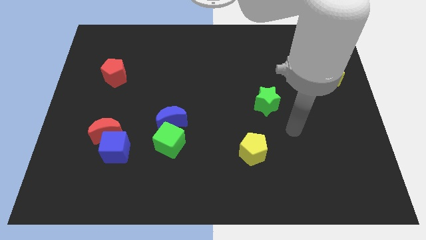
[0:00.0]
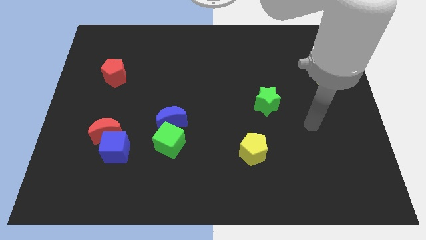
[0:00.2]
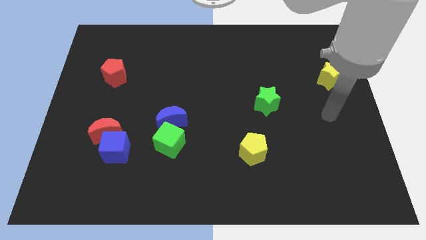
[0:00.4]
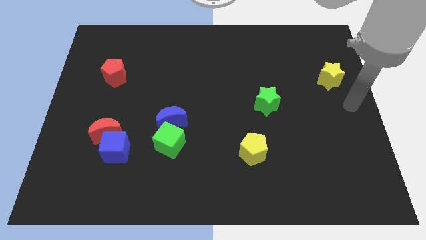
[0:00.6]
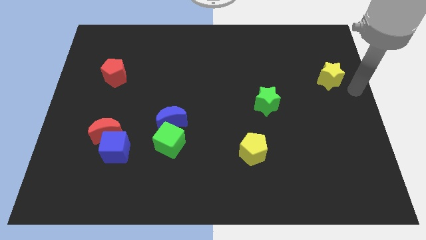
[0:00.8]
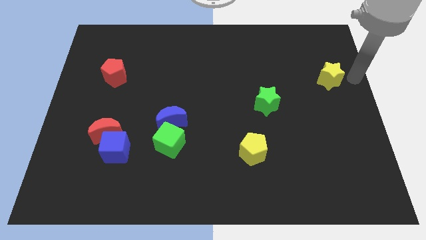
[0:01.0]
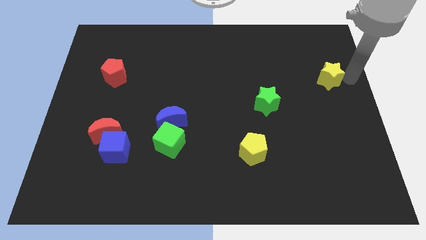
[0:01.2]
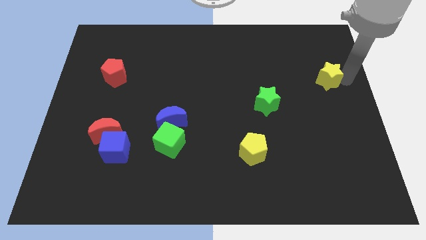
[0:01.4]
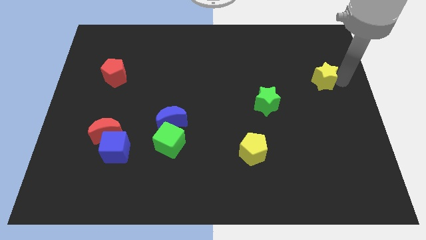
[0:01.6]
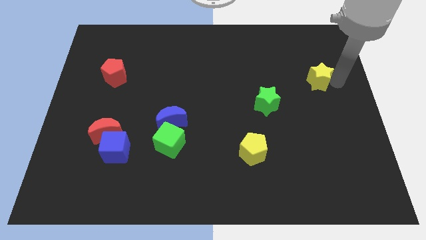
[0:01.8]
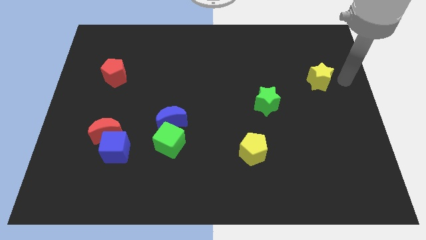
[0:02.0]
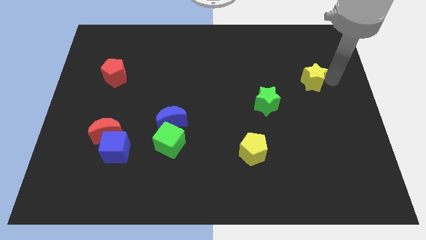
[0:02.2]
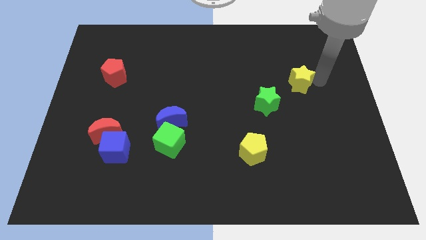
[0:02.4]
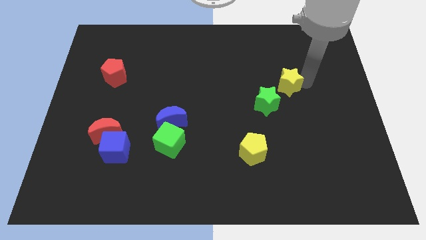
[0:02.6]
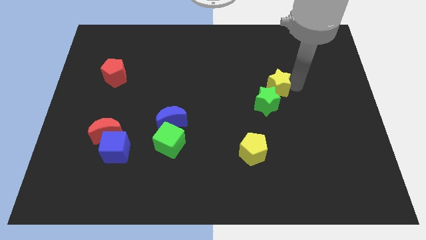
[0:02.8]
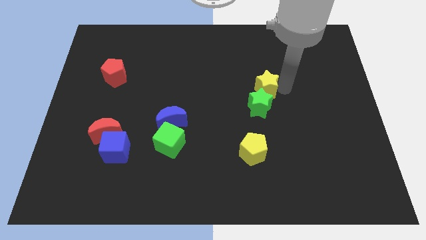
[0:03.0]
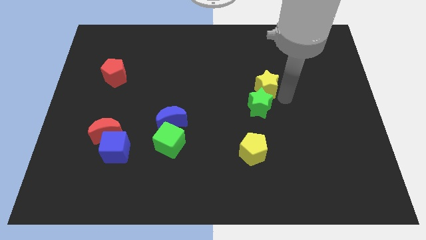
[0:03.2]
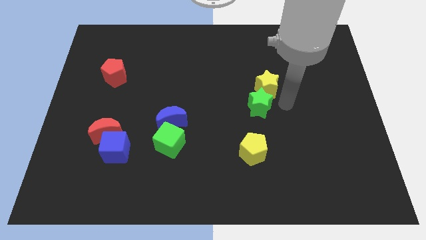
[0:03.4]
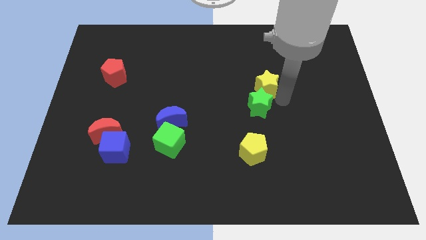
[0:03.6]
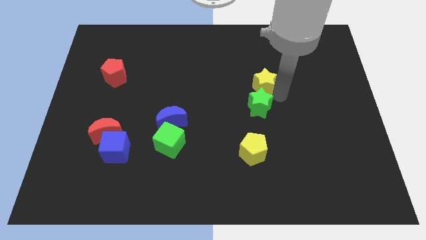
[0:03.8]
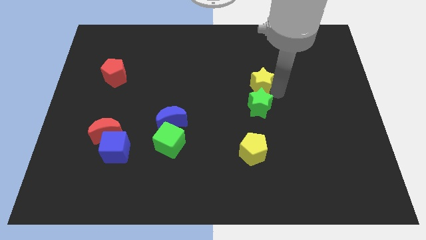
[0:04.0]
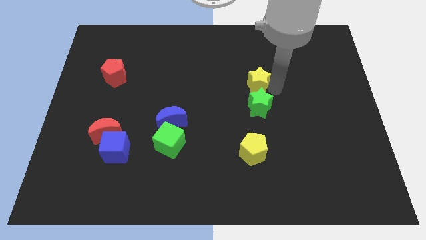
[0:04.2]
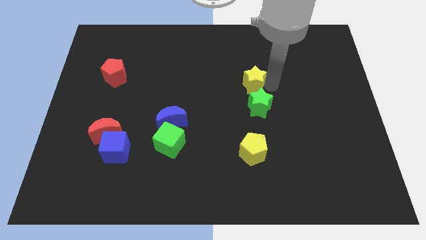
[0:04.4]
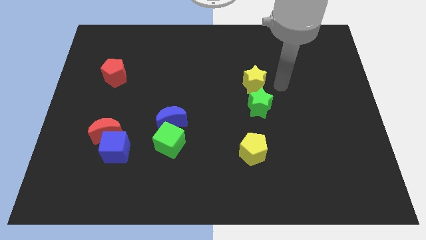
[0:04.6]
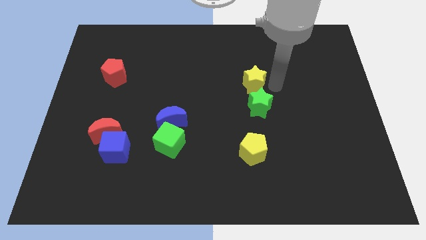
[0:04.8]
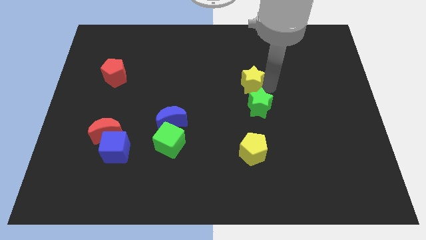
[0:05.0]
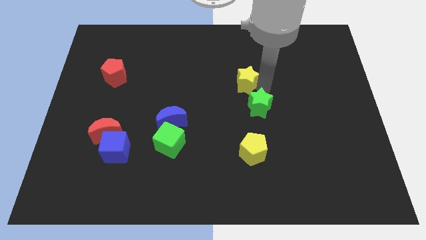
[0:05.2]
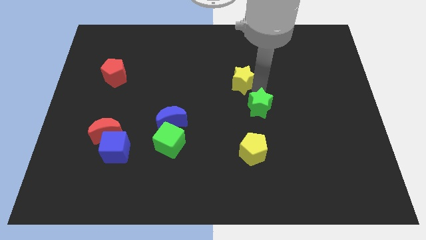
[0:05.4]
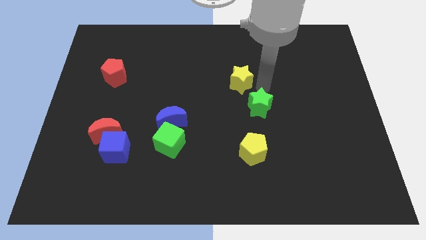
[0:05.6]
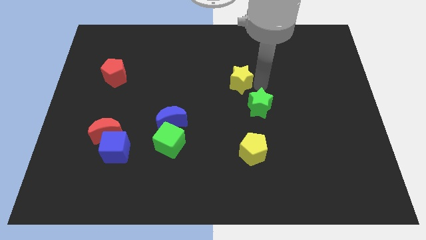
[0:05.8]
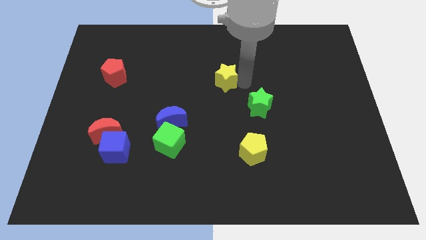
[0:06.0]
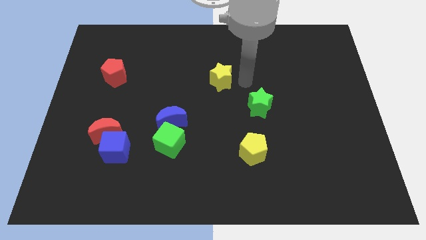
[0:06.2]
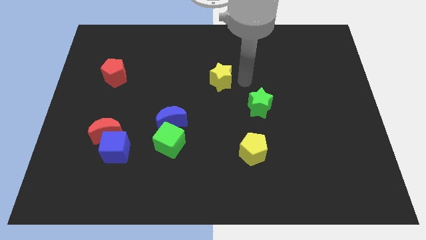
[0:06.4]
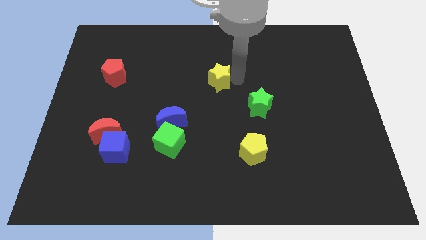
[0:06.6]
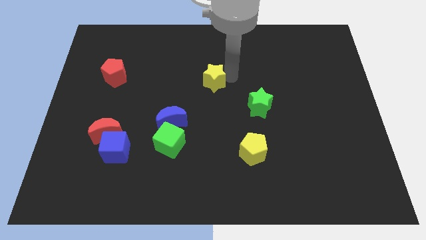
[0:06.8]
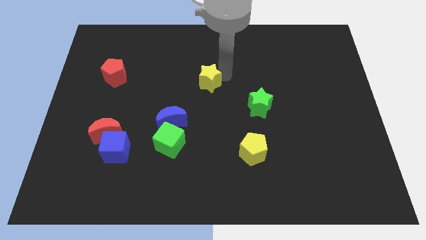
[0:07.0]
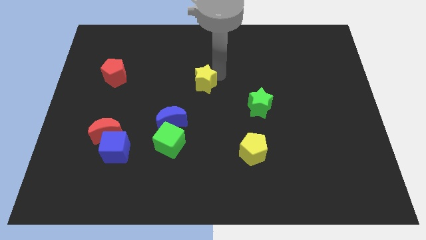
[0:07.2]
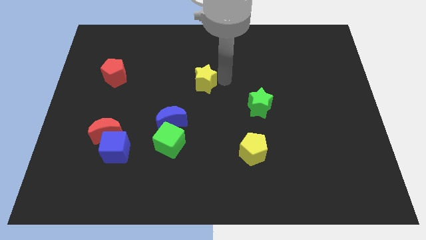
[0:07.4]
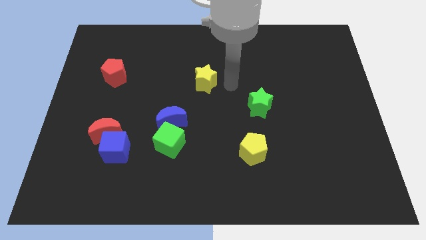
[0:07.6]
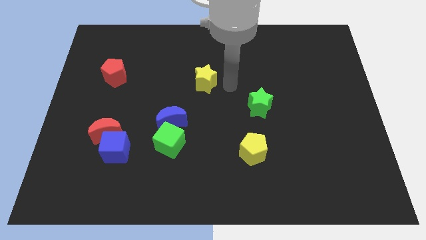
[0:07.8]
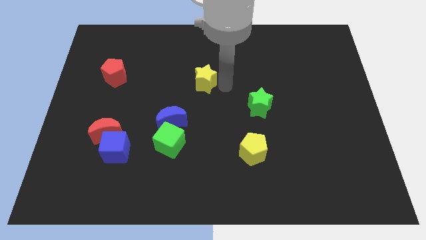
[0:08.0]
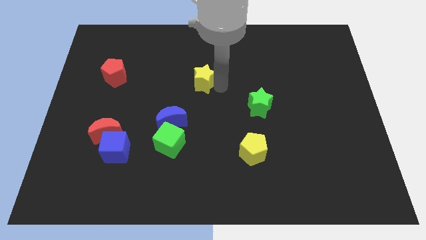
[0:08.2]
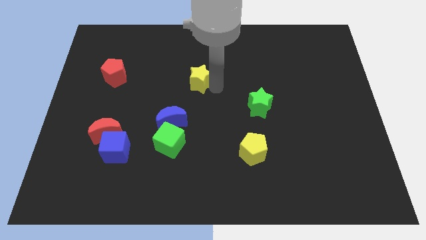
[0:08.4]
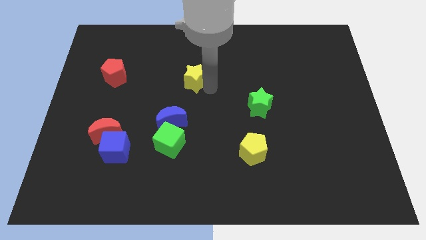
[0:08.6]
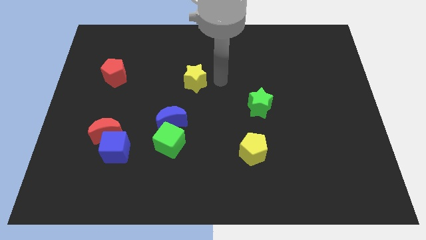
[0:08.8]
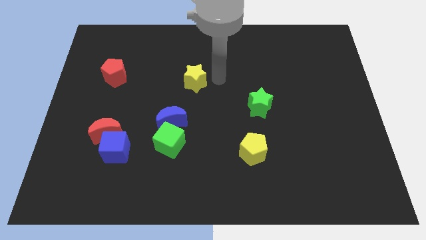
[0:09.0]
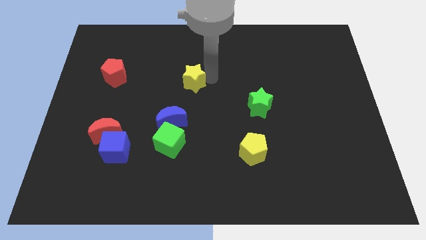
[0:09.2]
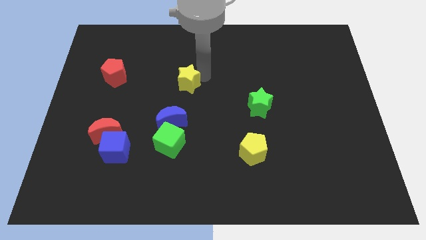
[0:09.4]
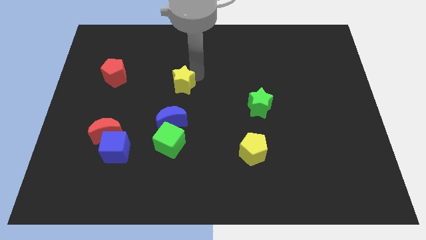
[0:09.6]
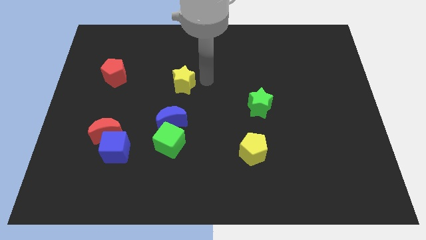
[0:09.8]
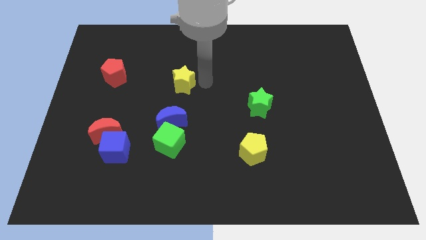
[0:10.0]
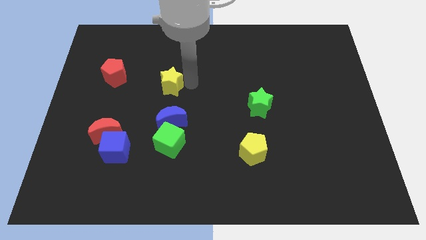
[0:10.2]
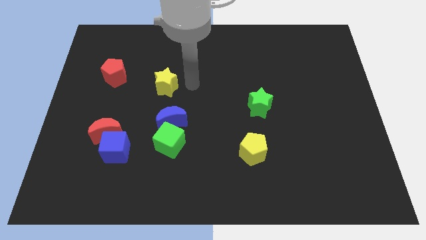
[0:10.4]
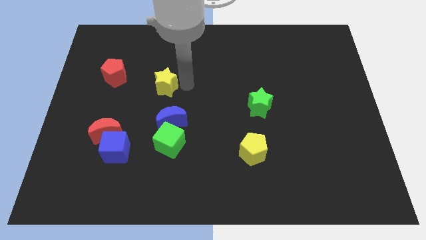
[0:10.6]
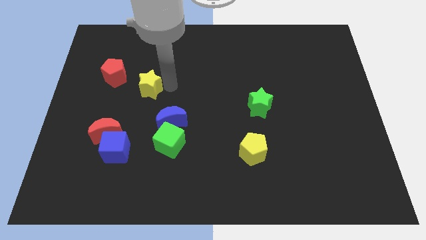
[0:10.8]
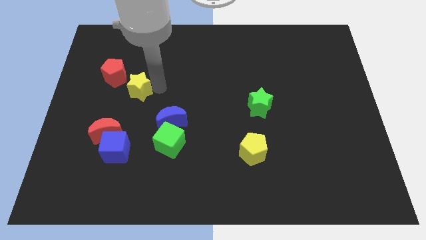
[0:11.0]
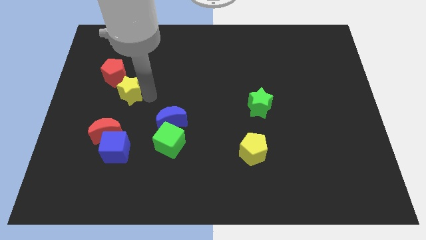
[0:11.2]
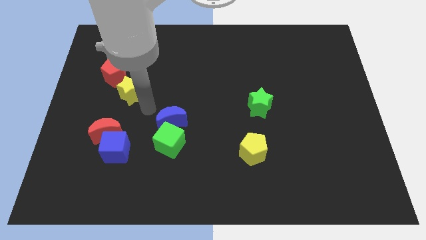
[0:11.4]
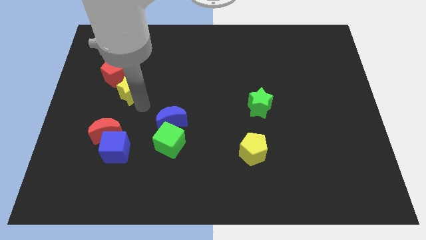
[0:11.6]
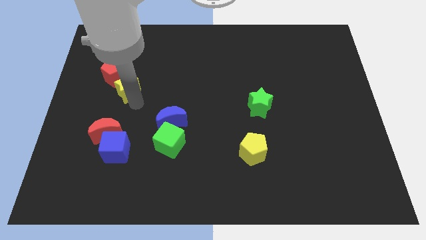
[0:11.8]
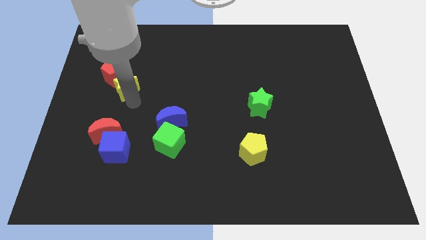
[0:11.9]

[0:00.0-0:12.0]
move the yellow star to the red pentagon

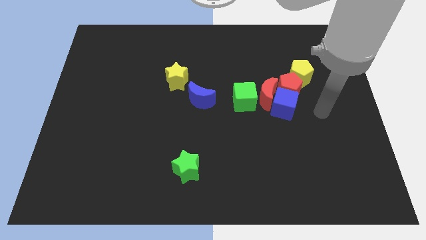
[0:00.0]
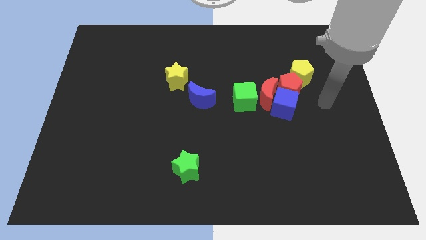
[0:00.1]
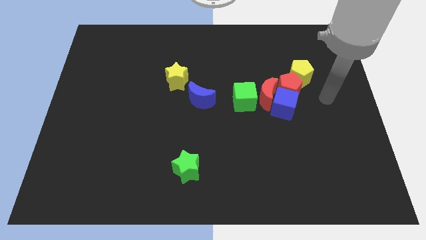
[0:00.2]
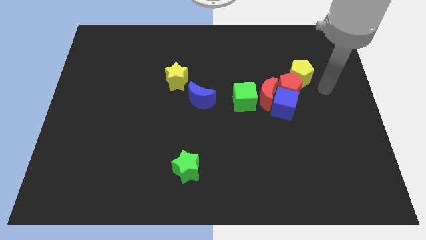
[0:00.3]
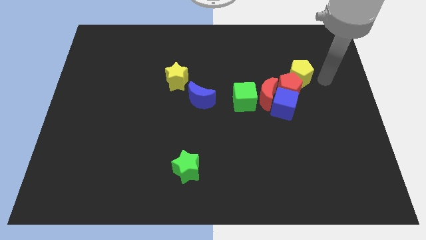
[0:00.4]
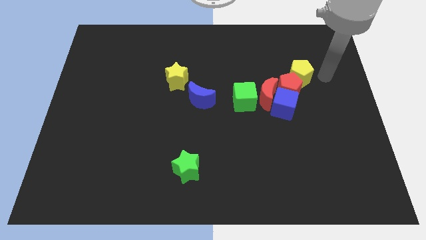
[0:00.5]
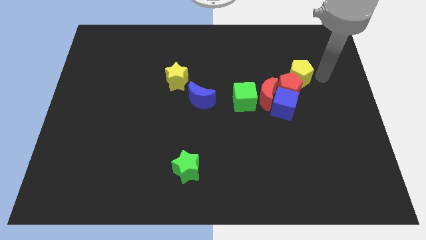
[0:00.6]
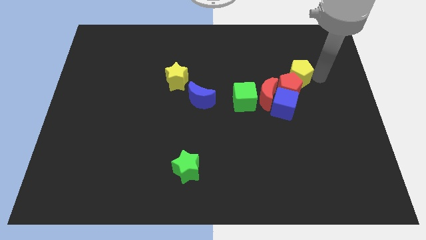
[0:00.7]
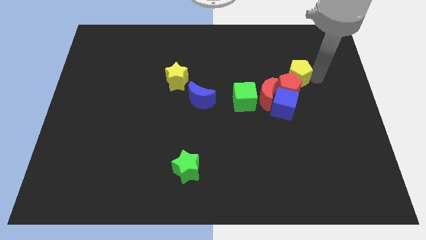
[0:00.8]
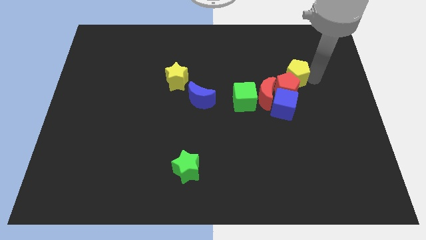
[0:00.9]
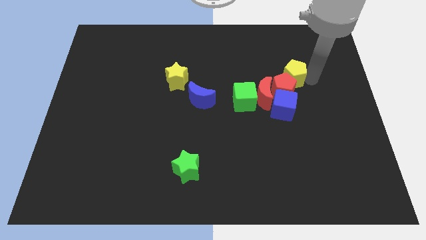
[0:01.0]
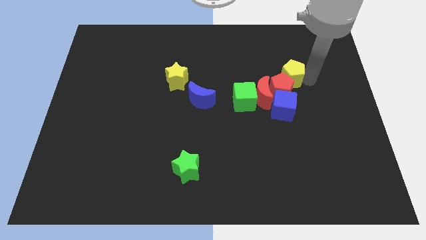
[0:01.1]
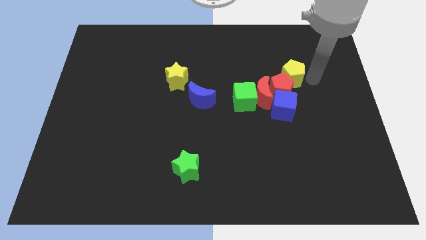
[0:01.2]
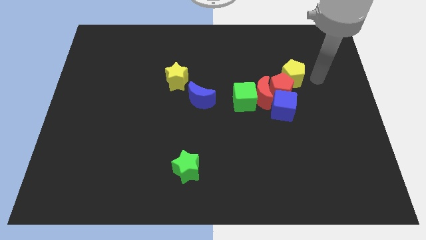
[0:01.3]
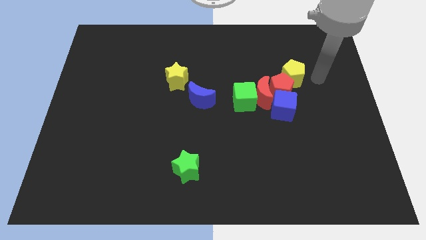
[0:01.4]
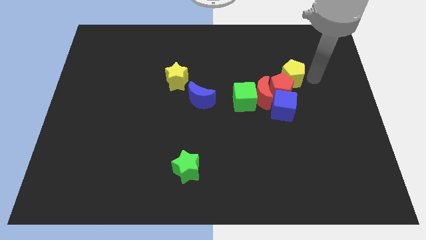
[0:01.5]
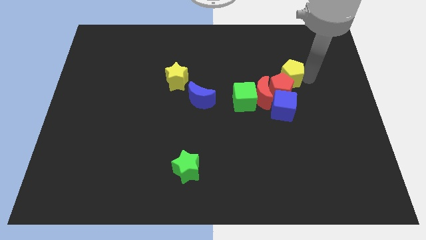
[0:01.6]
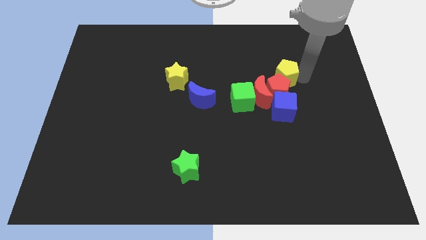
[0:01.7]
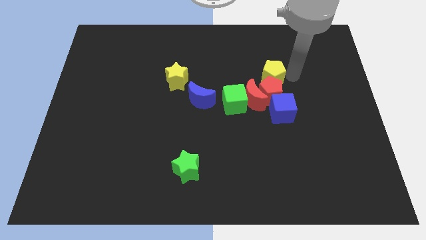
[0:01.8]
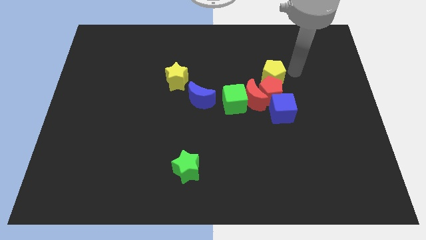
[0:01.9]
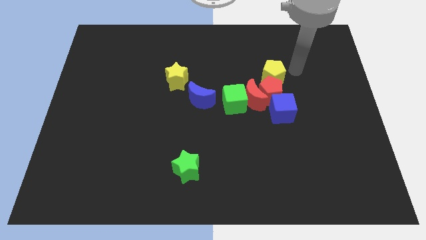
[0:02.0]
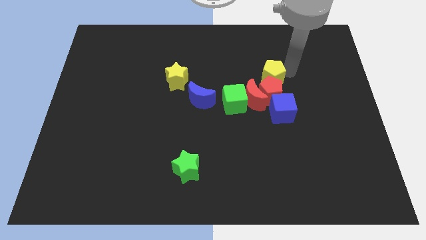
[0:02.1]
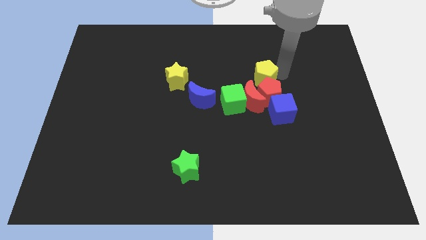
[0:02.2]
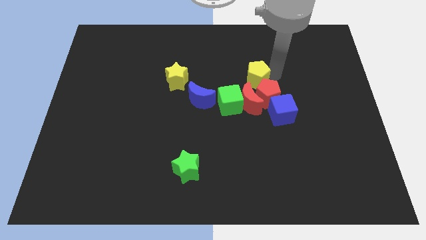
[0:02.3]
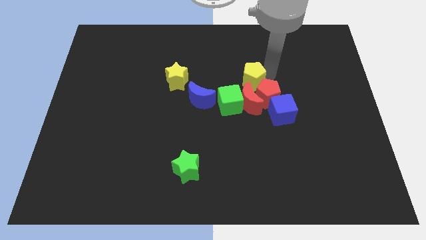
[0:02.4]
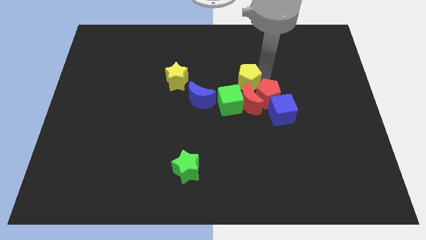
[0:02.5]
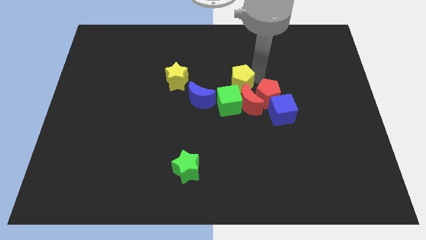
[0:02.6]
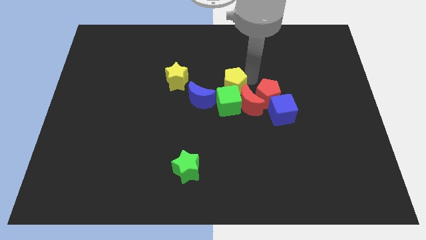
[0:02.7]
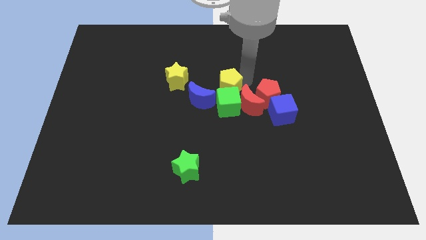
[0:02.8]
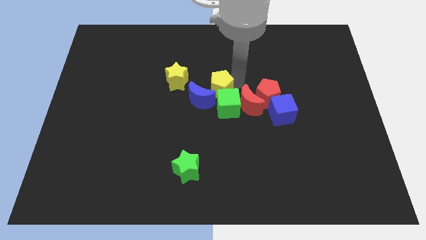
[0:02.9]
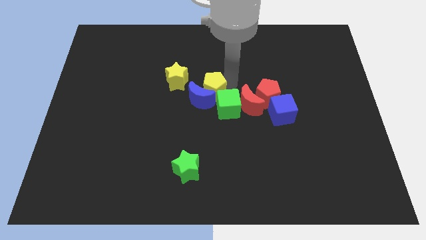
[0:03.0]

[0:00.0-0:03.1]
put the yellow pentagon to the blue moon
